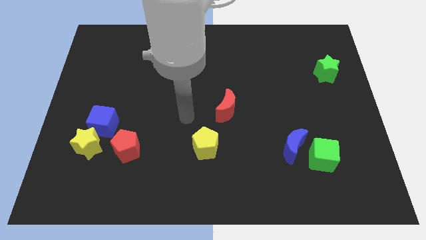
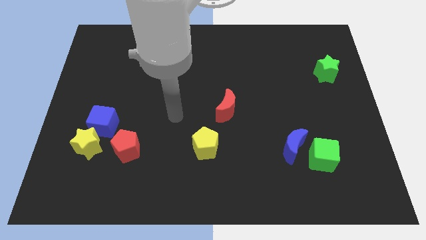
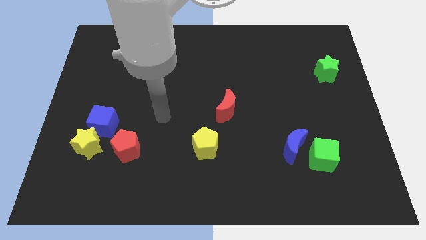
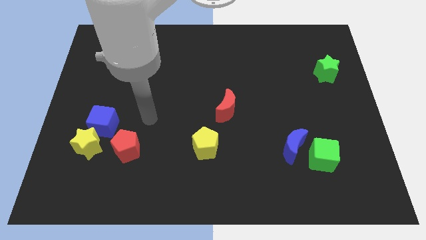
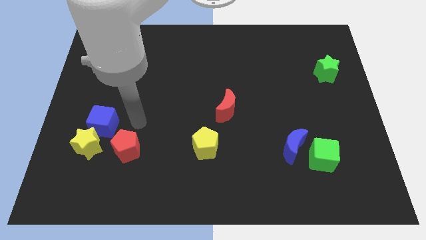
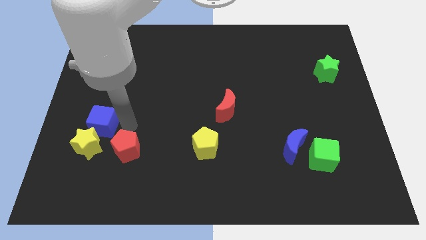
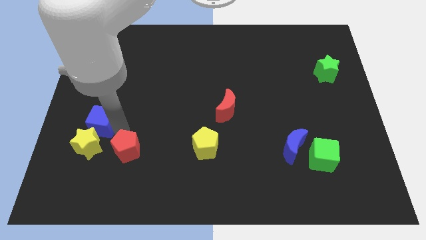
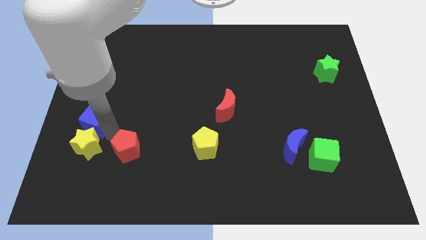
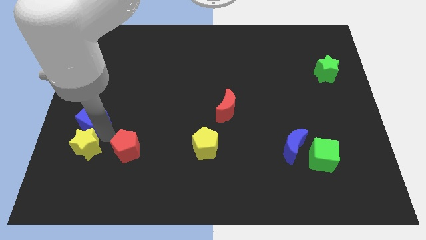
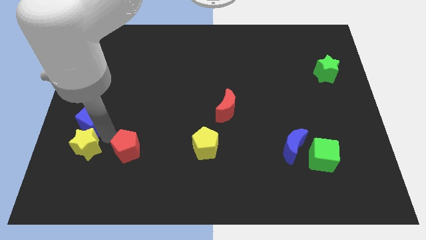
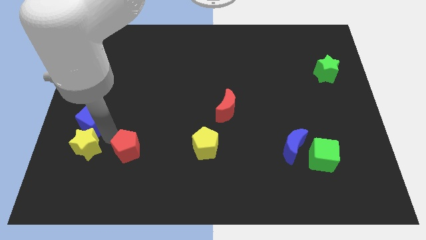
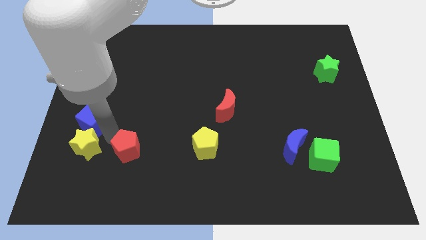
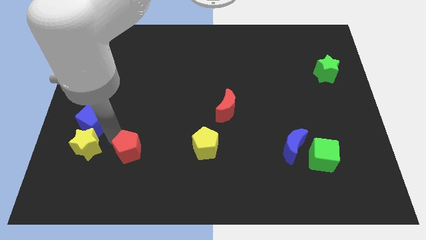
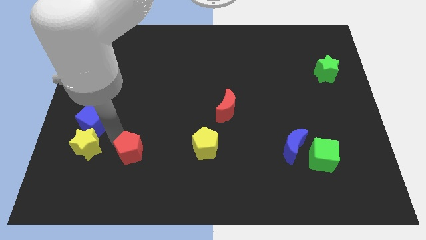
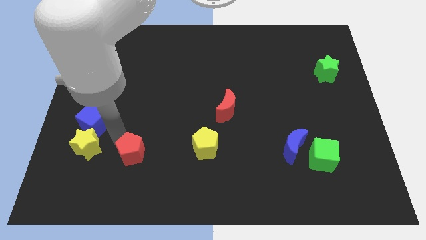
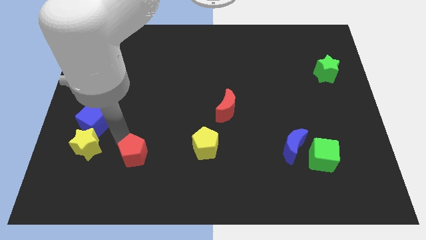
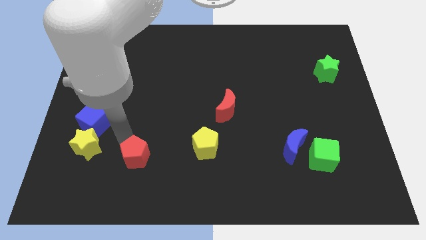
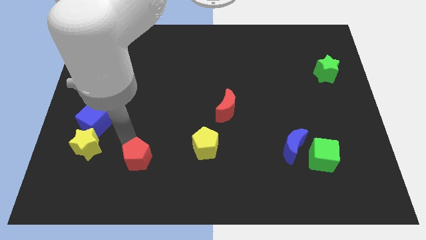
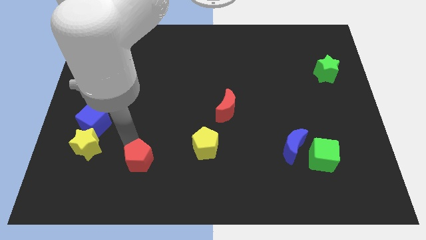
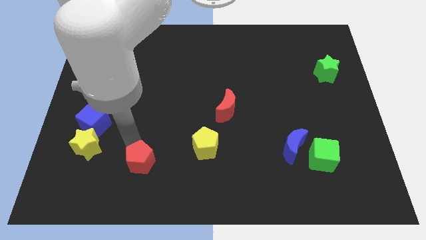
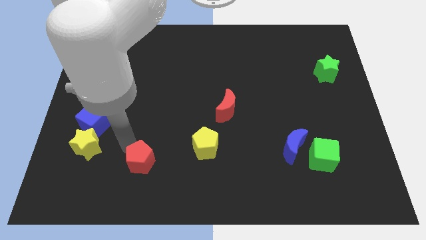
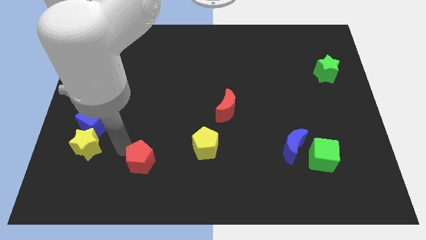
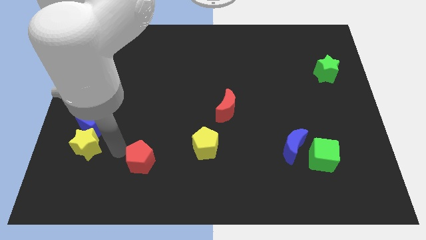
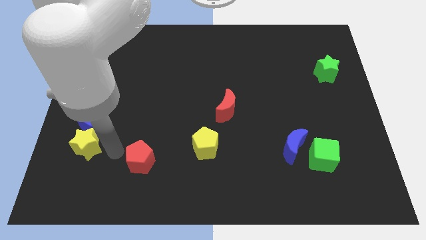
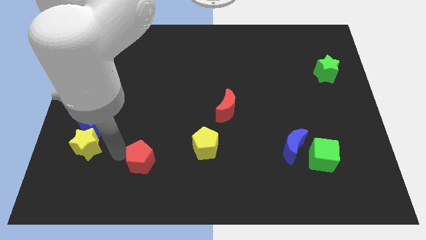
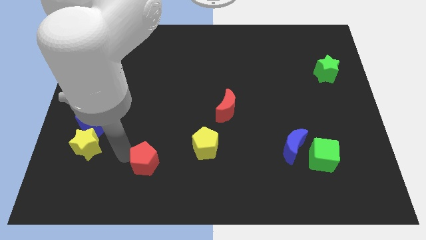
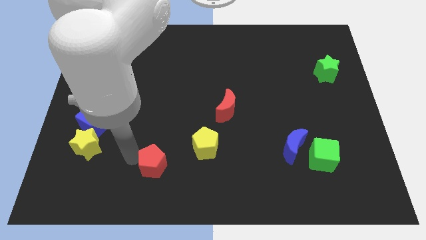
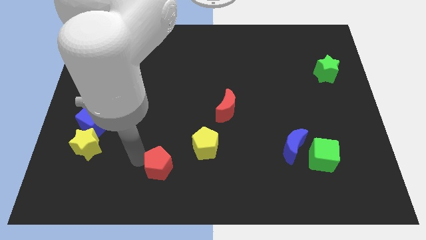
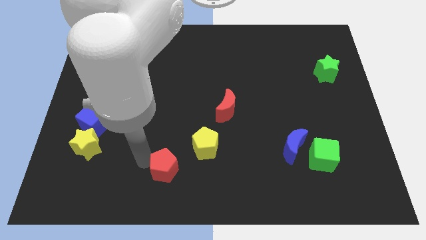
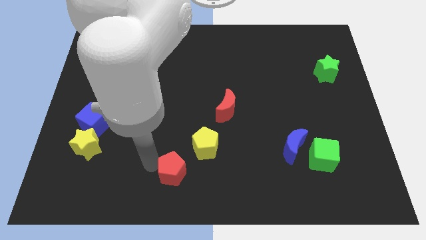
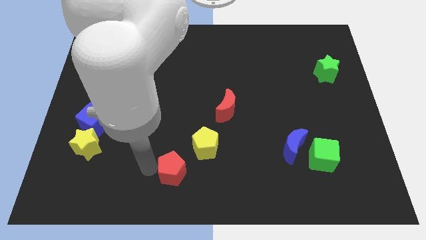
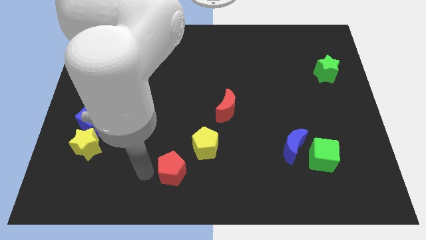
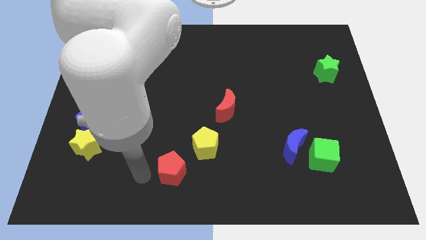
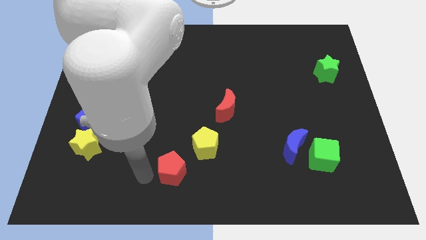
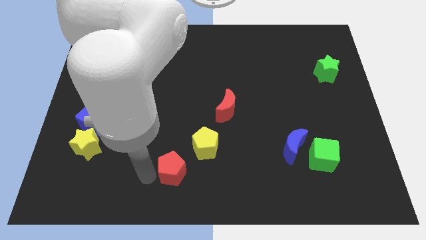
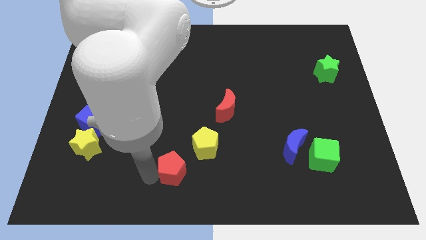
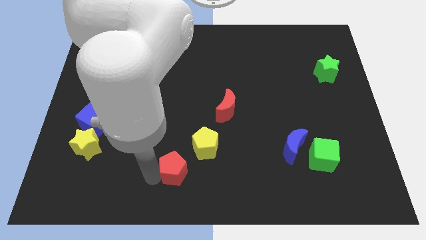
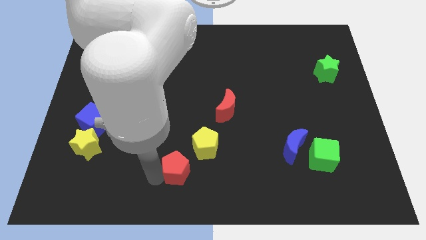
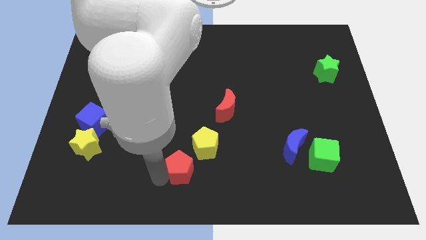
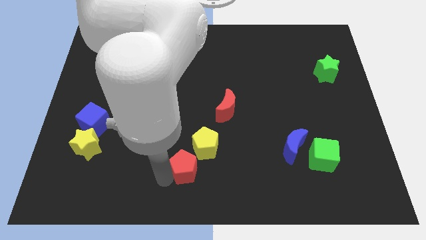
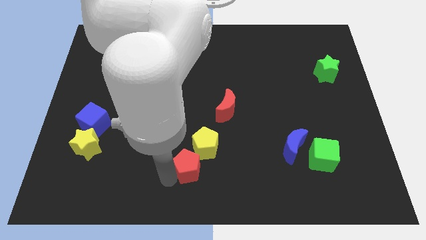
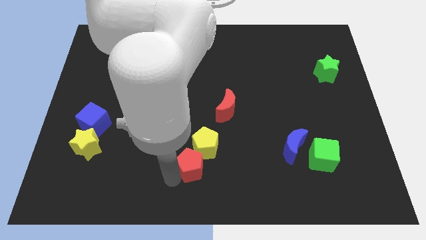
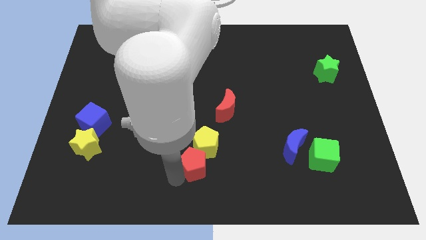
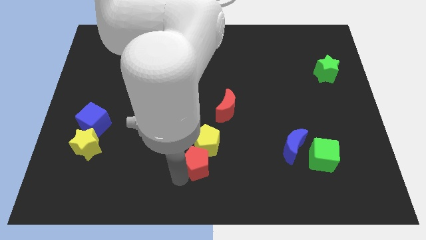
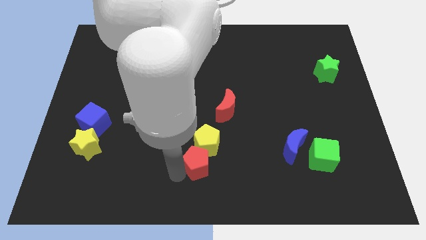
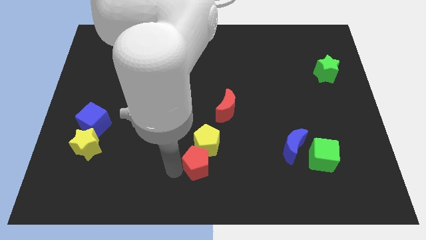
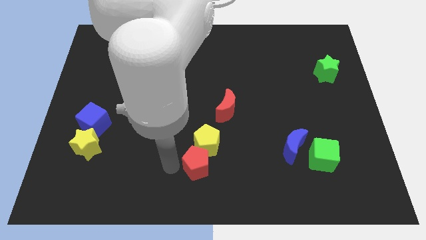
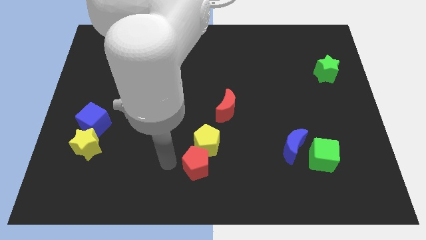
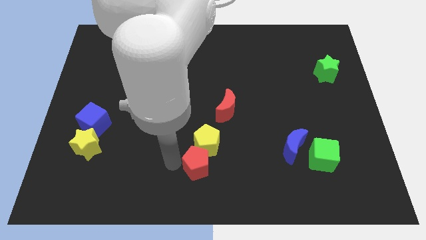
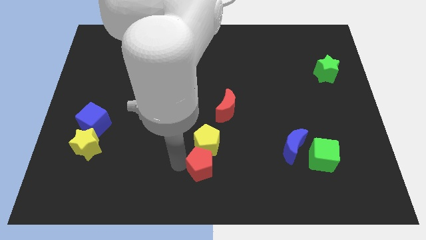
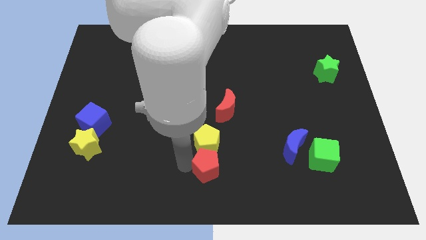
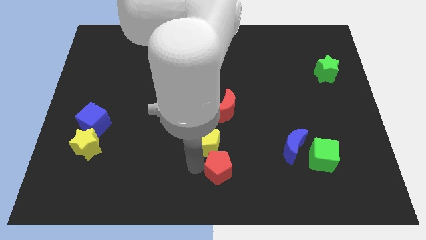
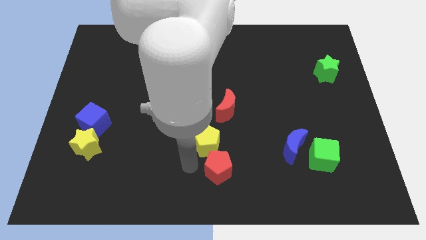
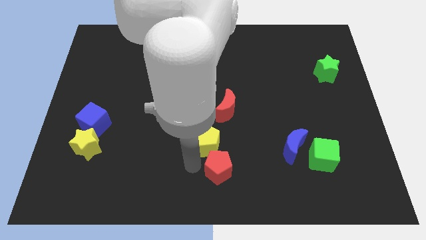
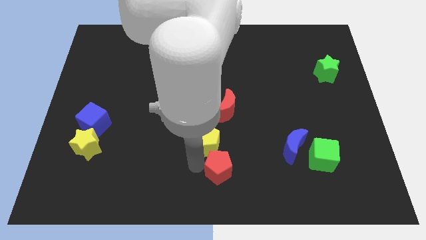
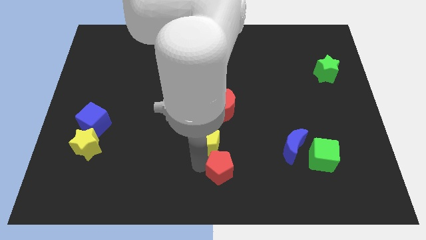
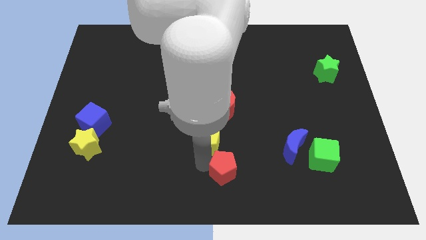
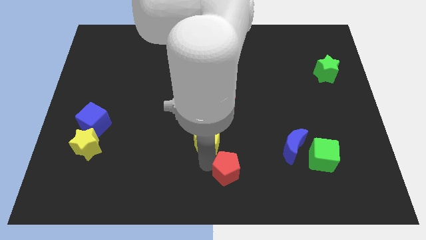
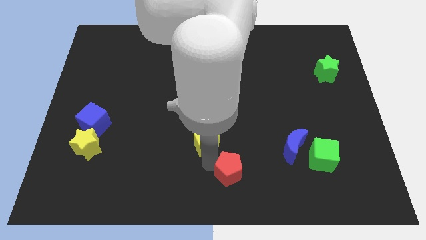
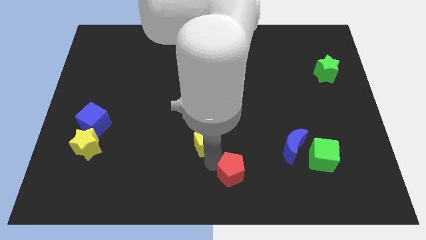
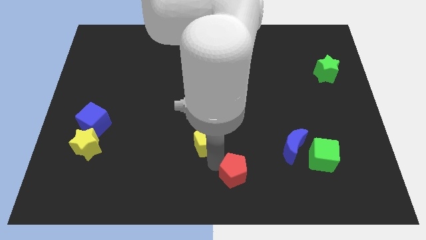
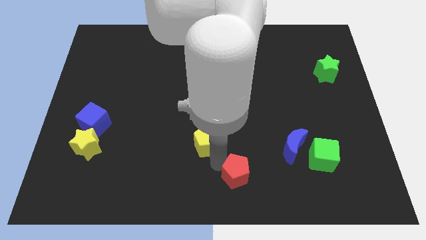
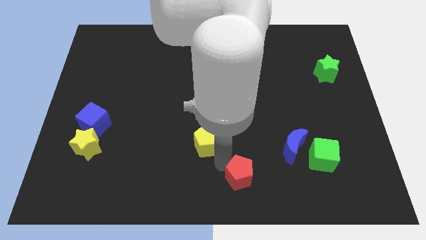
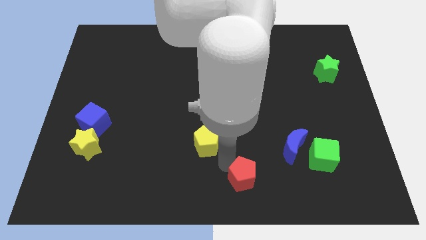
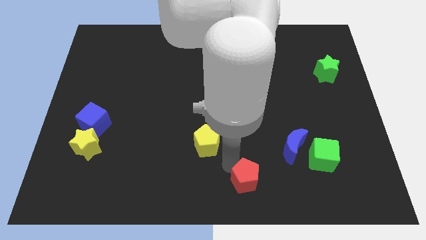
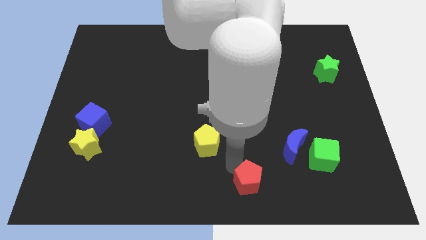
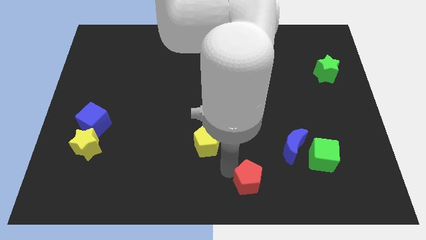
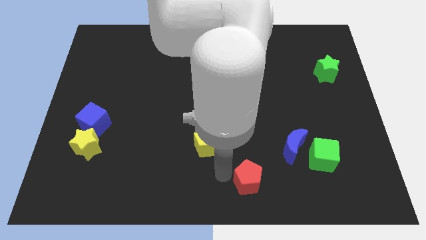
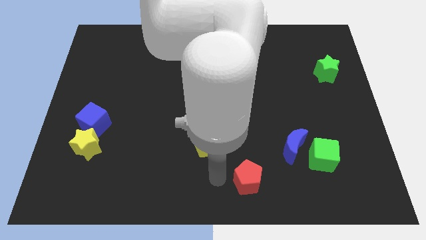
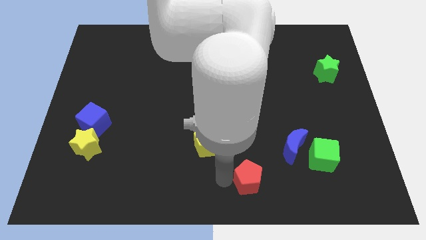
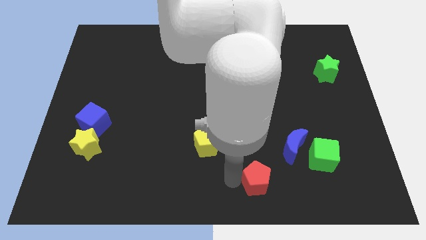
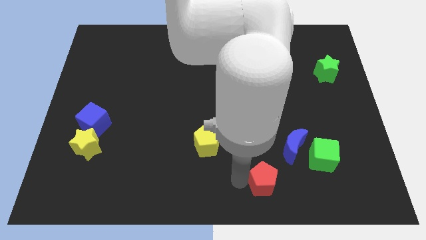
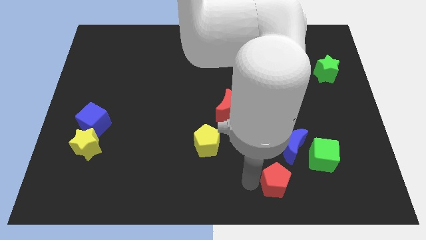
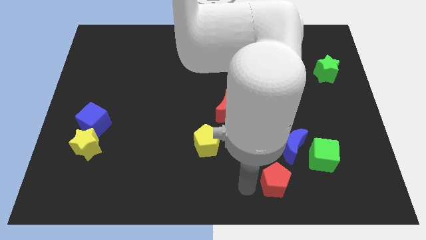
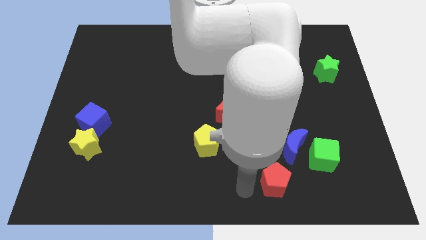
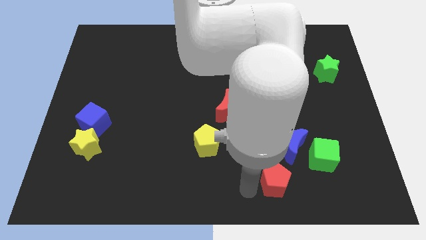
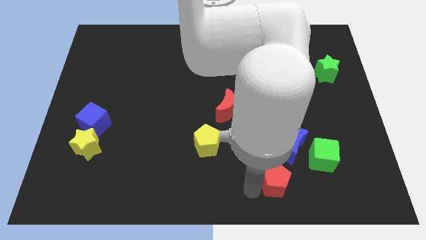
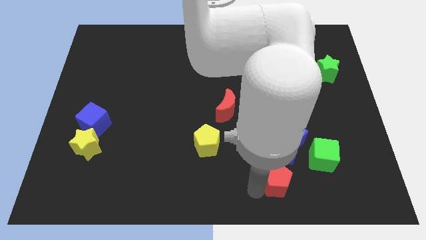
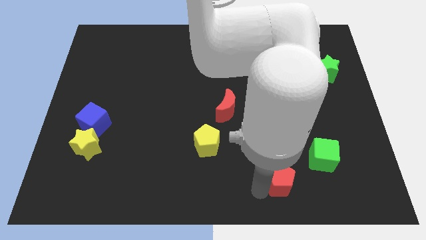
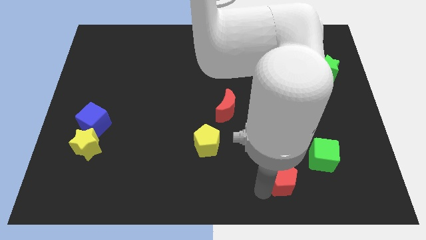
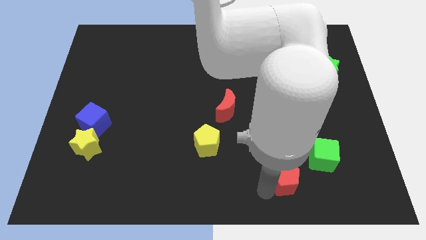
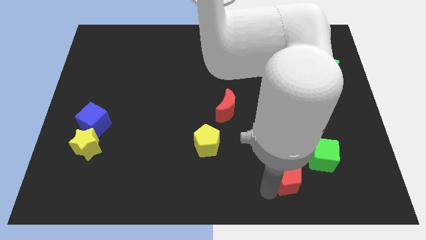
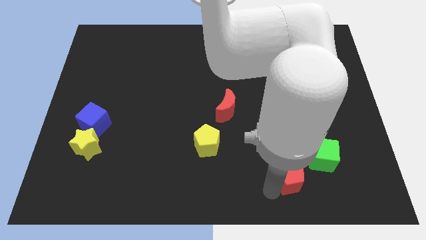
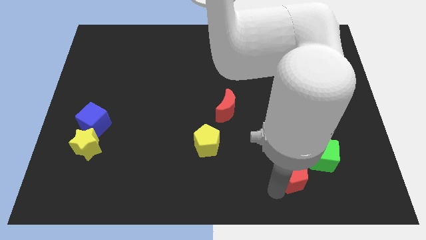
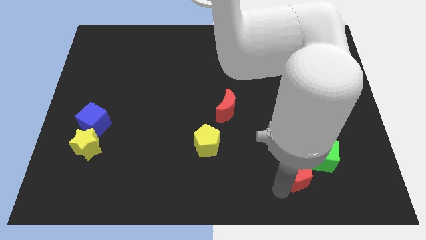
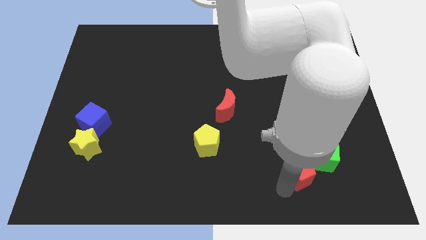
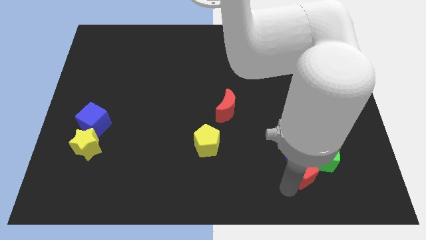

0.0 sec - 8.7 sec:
put the red pentagon towards the green cube
